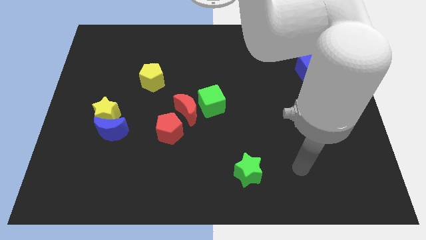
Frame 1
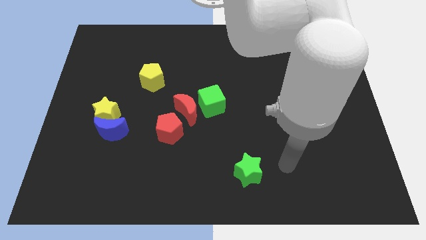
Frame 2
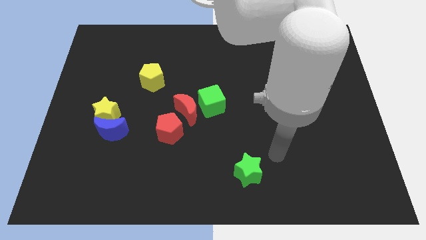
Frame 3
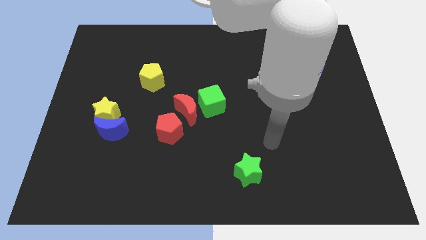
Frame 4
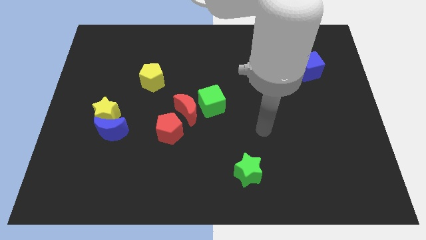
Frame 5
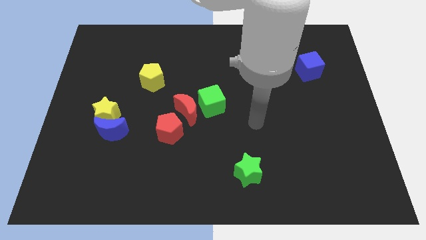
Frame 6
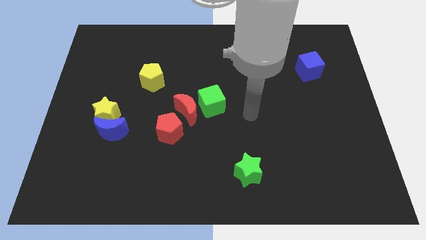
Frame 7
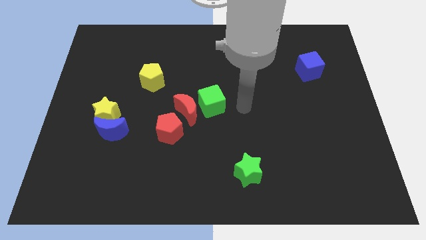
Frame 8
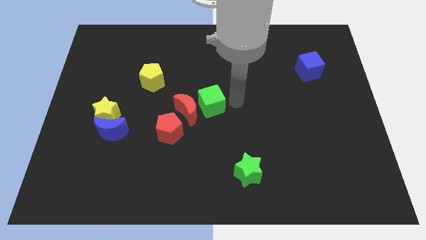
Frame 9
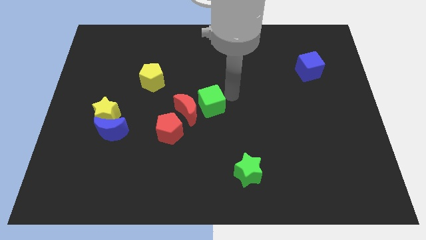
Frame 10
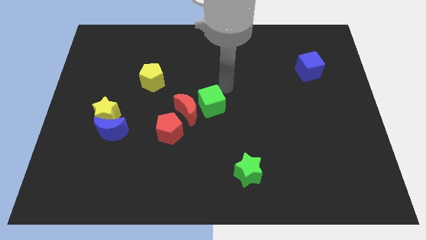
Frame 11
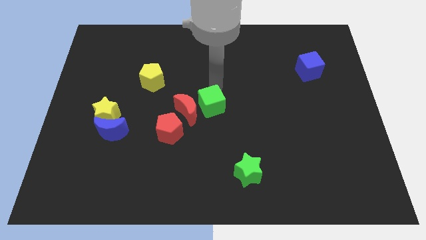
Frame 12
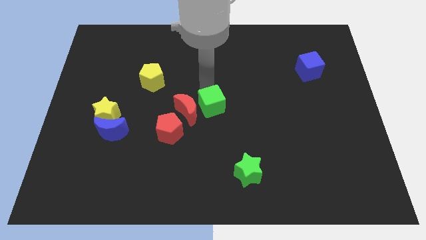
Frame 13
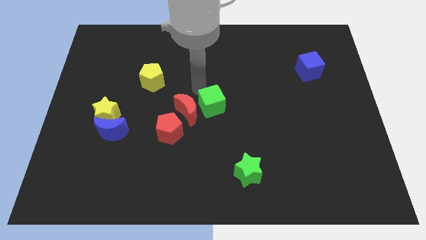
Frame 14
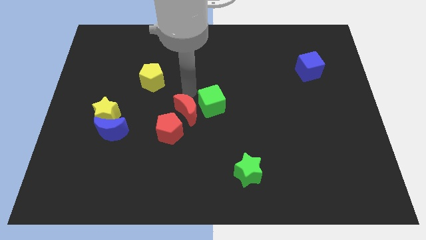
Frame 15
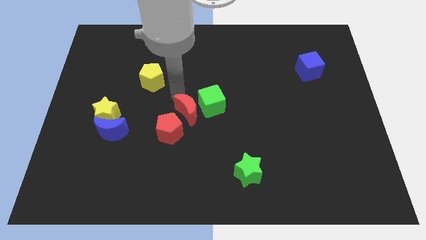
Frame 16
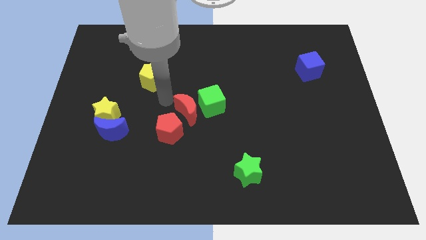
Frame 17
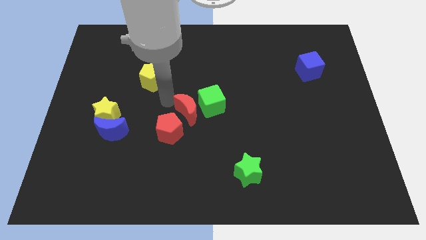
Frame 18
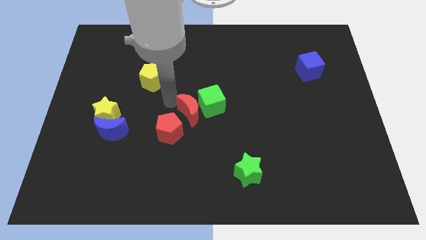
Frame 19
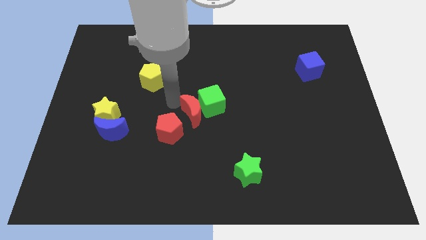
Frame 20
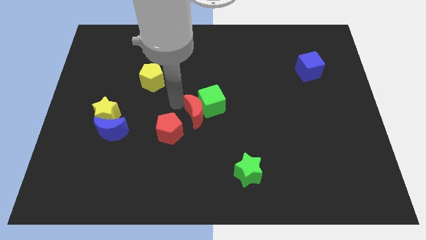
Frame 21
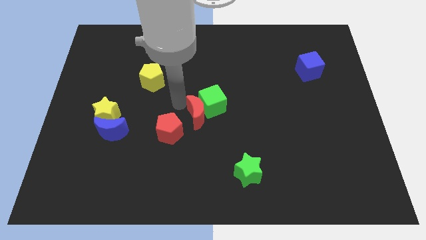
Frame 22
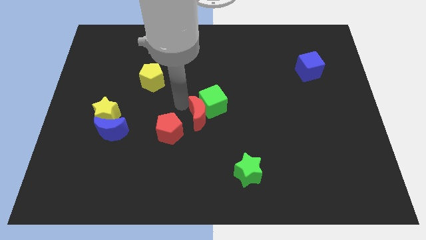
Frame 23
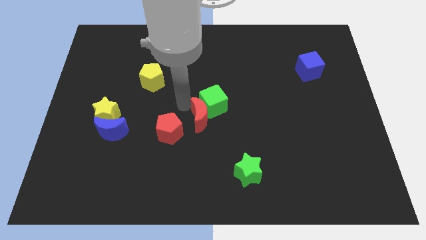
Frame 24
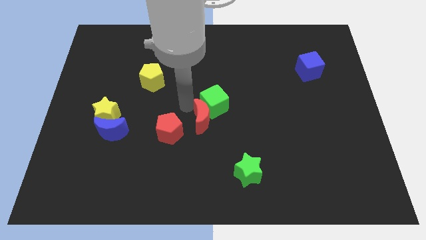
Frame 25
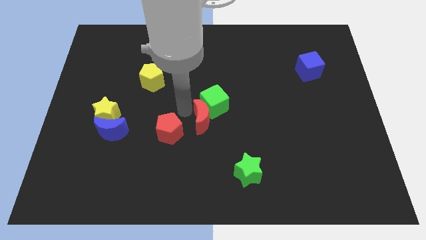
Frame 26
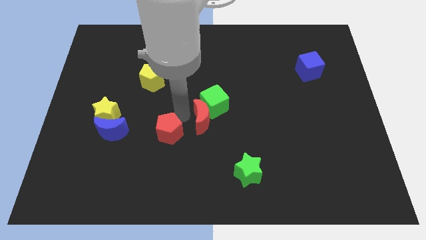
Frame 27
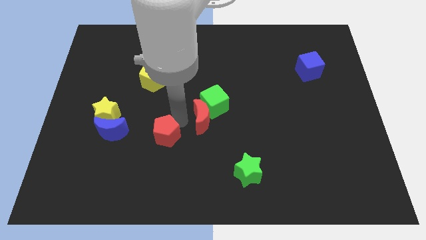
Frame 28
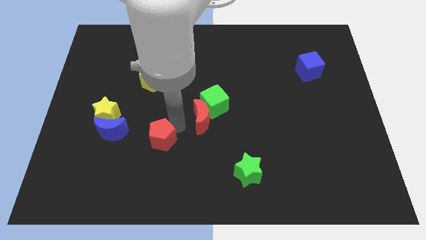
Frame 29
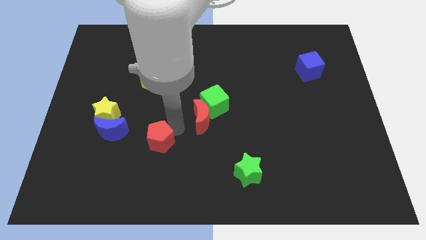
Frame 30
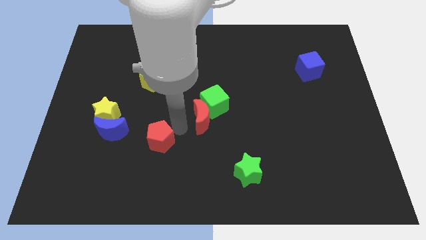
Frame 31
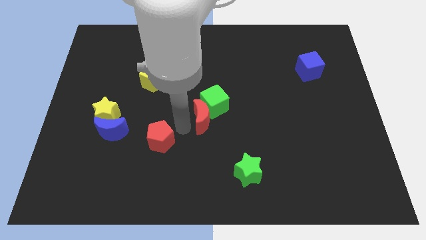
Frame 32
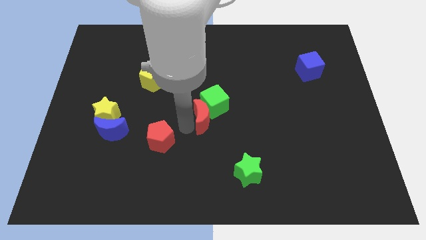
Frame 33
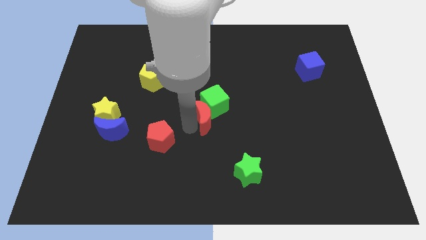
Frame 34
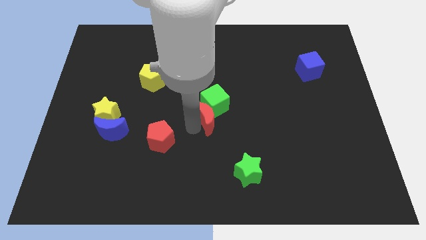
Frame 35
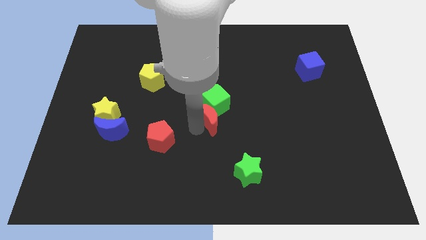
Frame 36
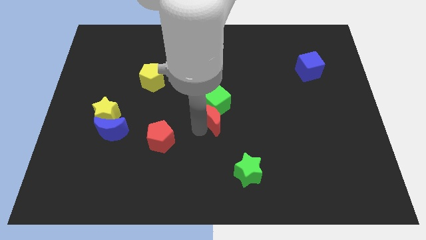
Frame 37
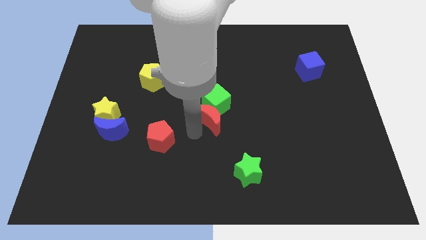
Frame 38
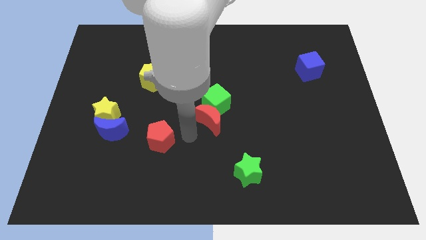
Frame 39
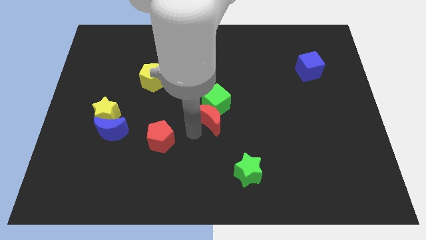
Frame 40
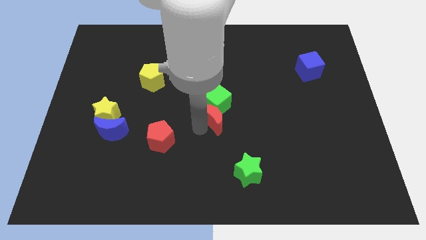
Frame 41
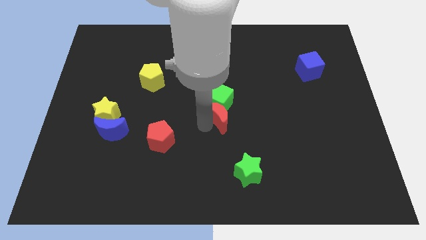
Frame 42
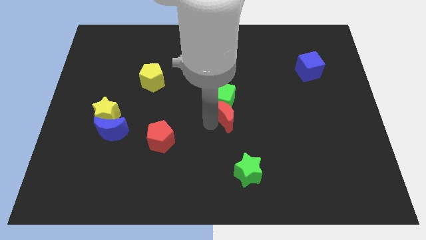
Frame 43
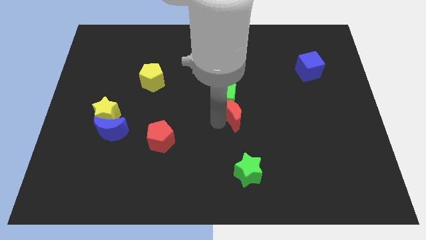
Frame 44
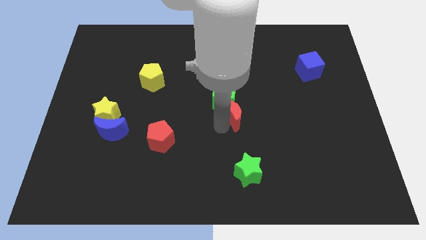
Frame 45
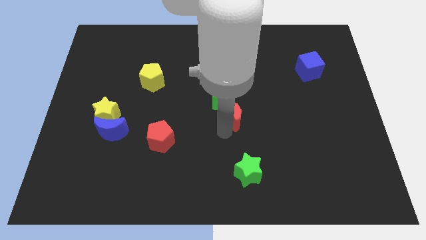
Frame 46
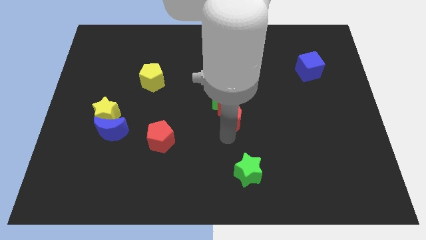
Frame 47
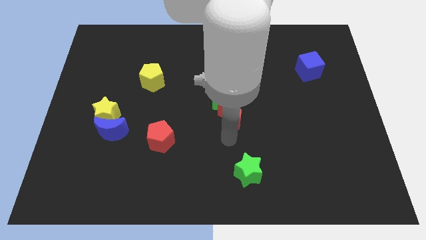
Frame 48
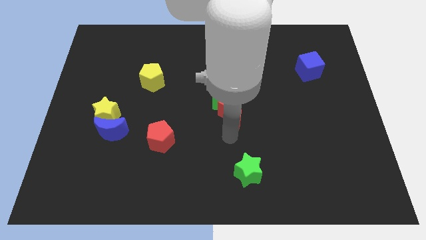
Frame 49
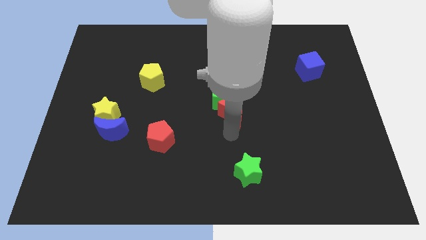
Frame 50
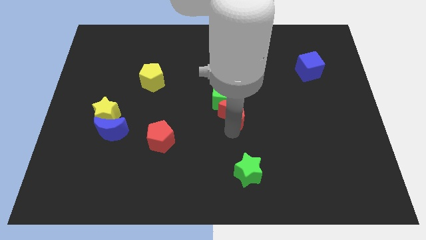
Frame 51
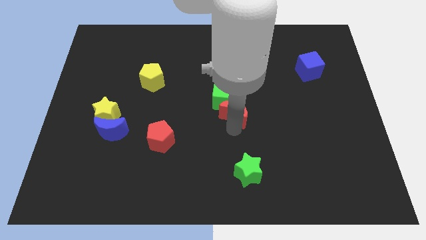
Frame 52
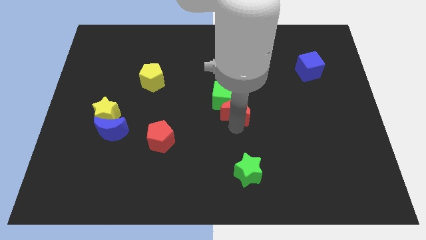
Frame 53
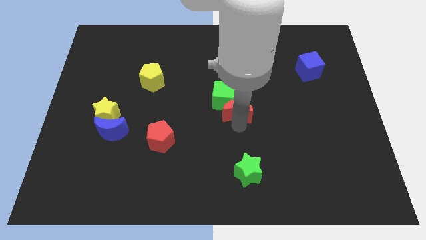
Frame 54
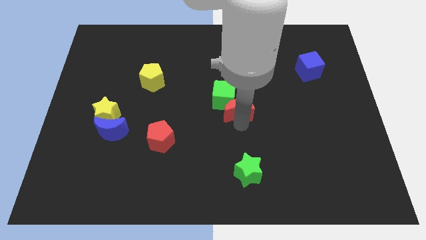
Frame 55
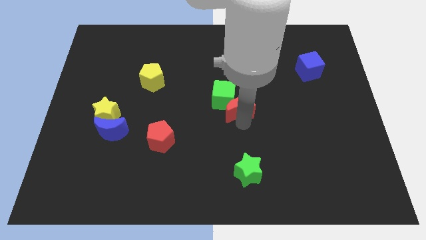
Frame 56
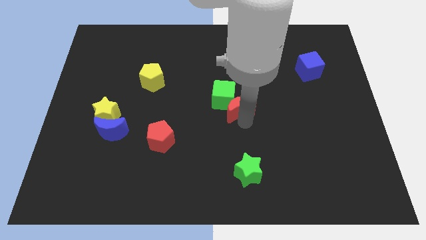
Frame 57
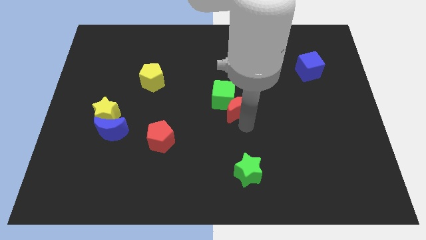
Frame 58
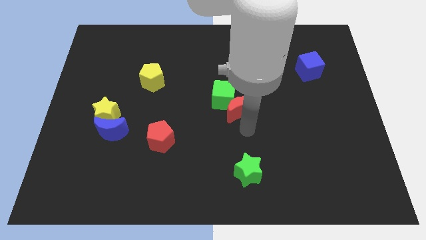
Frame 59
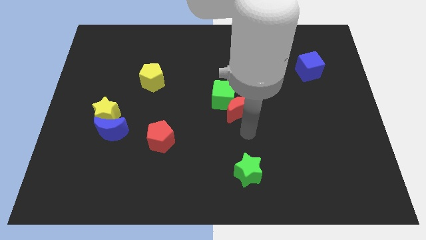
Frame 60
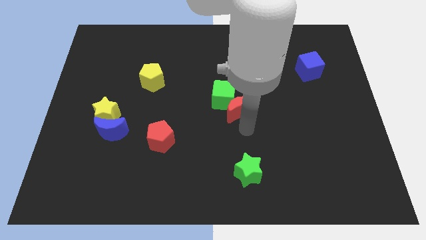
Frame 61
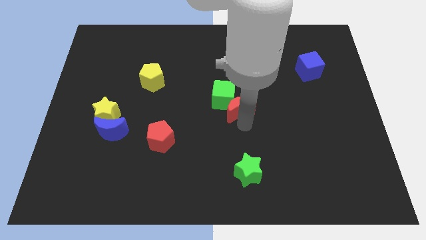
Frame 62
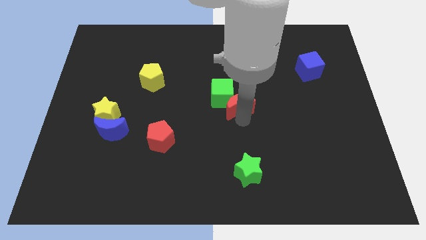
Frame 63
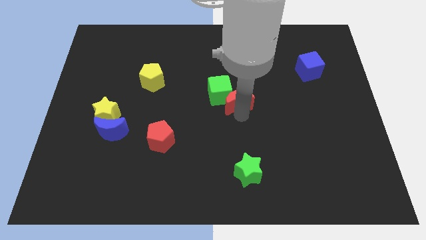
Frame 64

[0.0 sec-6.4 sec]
push the red moon a little diagonally upwards and right

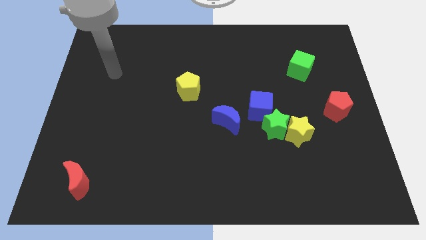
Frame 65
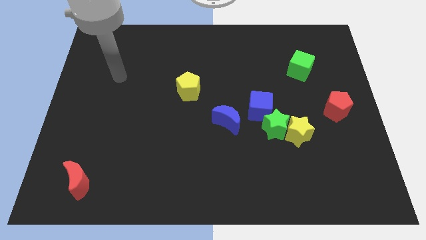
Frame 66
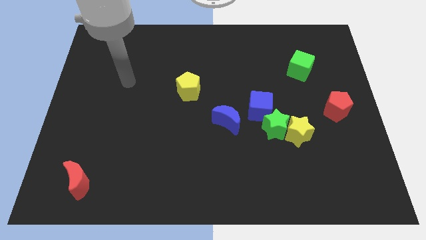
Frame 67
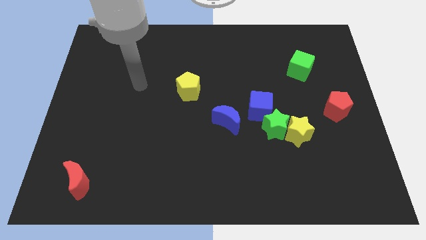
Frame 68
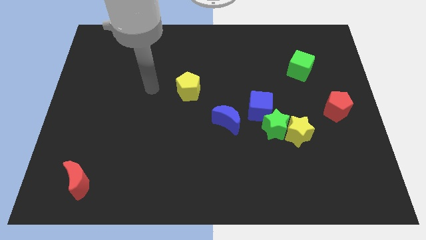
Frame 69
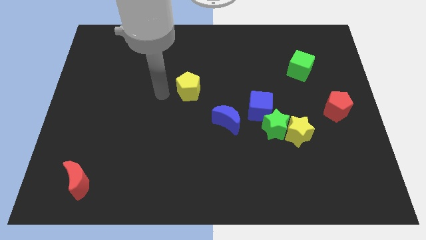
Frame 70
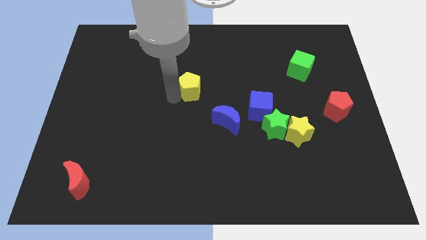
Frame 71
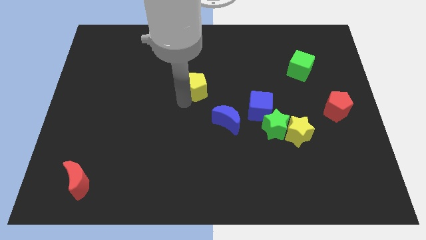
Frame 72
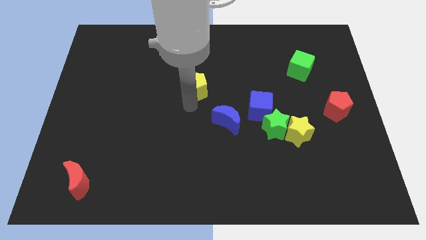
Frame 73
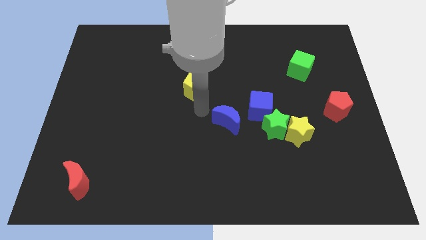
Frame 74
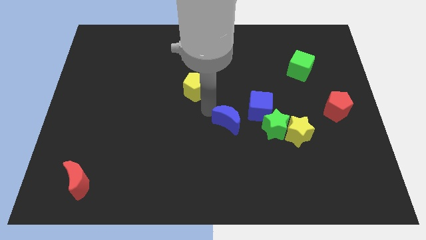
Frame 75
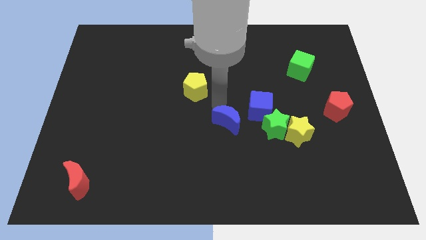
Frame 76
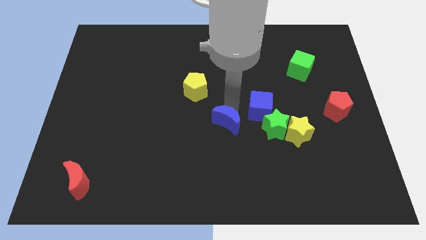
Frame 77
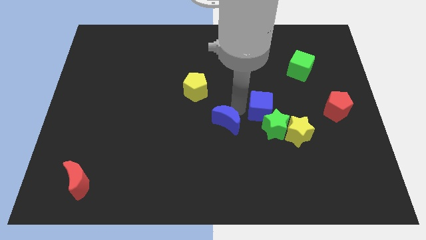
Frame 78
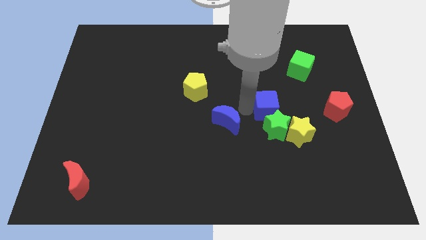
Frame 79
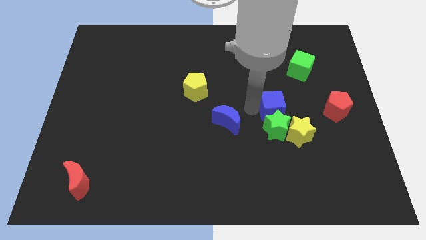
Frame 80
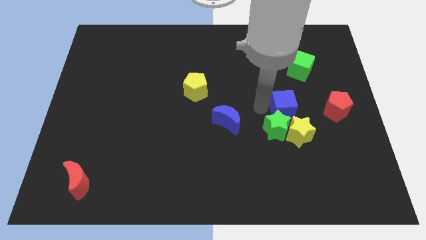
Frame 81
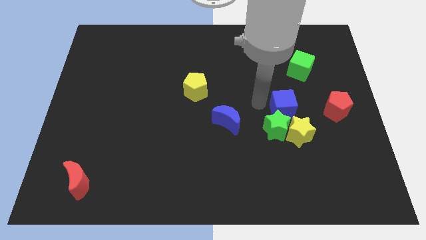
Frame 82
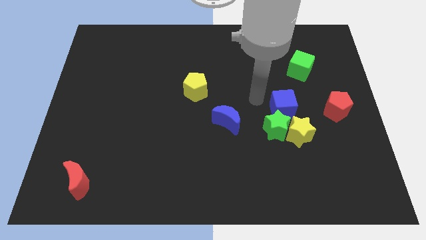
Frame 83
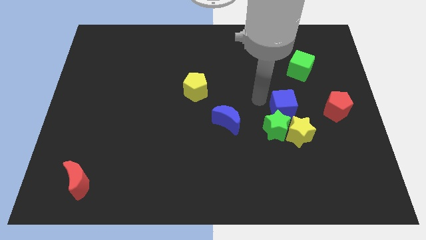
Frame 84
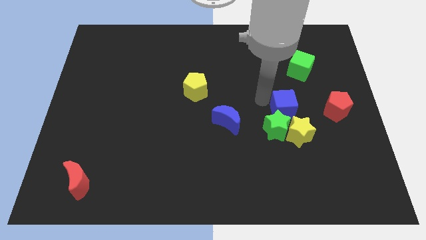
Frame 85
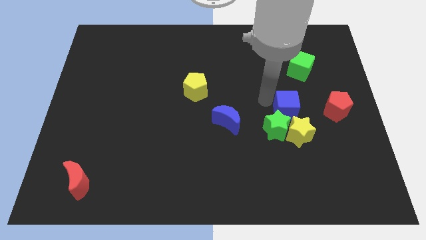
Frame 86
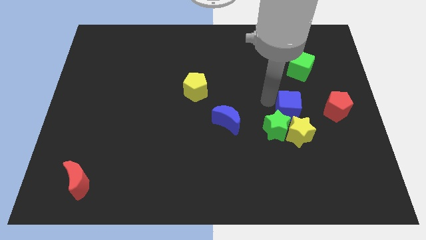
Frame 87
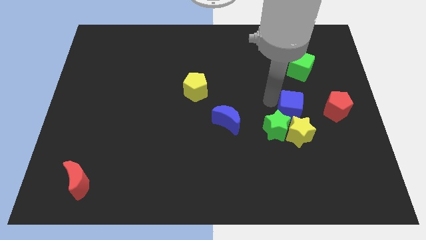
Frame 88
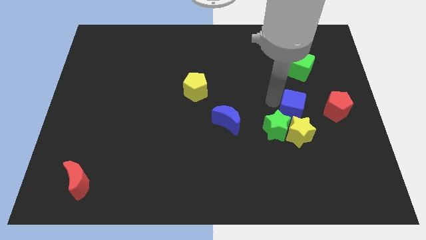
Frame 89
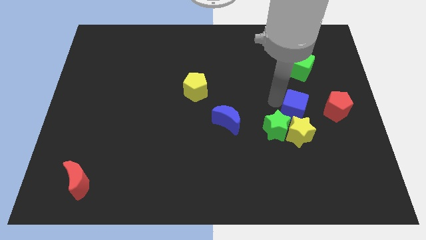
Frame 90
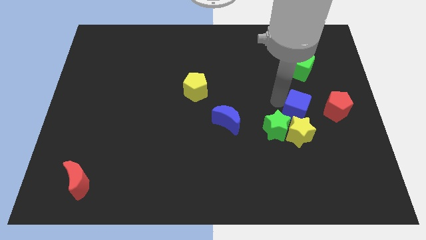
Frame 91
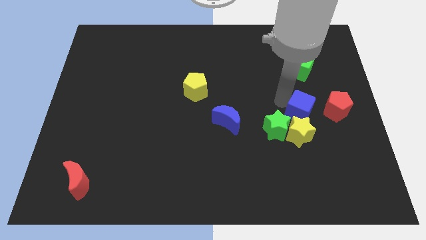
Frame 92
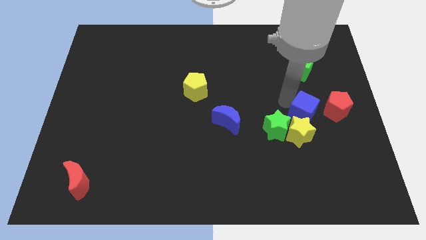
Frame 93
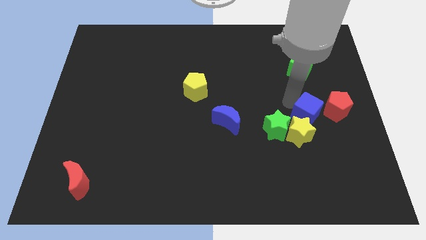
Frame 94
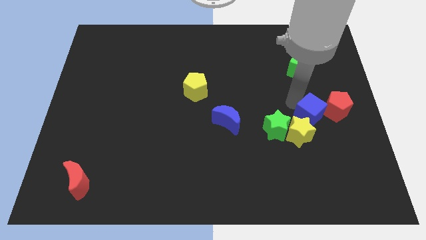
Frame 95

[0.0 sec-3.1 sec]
push the blue cube somewhat down and to the right diagonally
